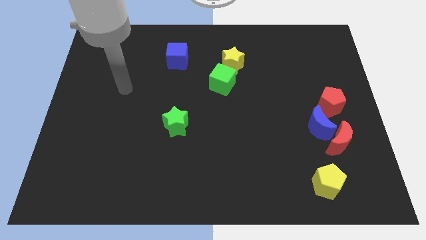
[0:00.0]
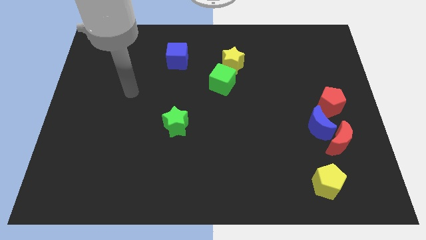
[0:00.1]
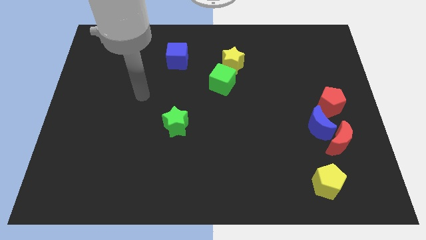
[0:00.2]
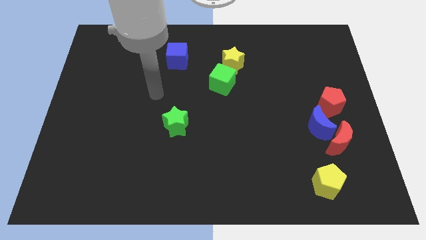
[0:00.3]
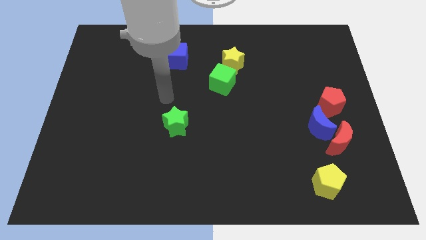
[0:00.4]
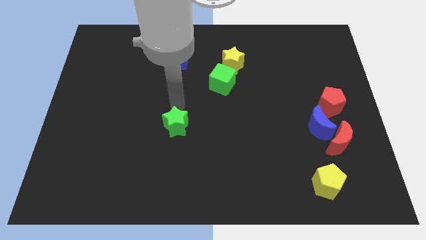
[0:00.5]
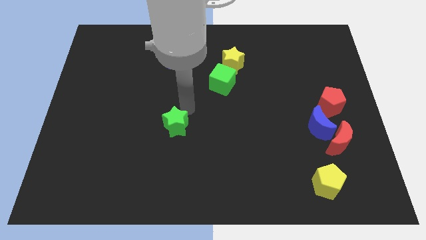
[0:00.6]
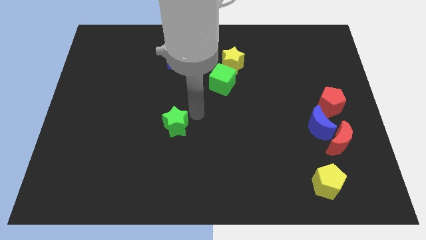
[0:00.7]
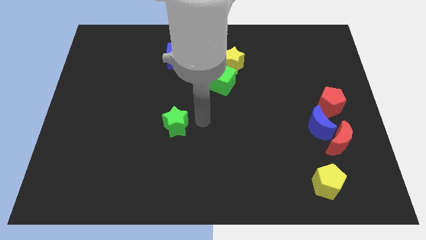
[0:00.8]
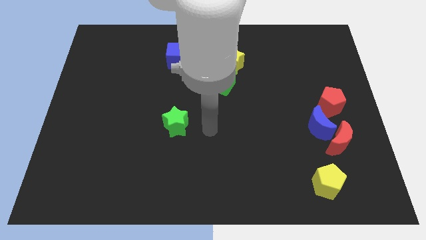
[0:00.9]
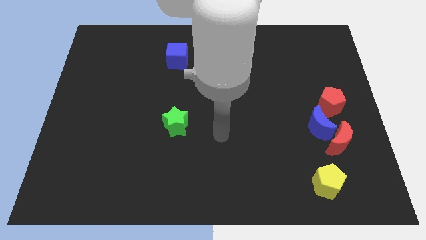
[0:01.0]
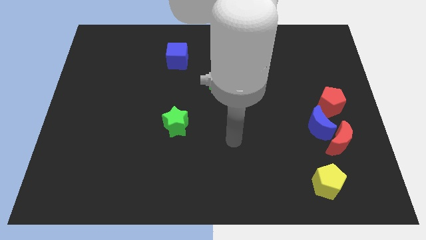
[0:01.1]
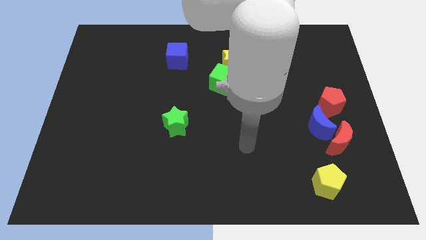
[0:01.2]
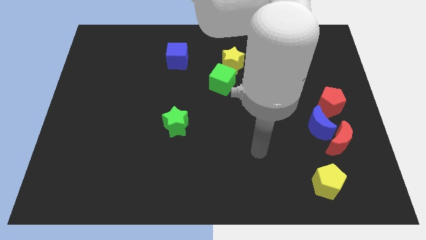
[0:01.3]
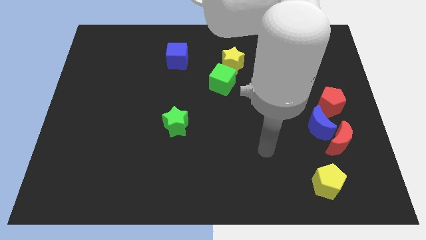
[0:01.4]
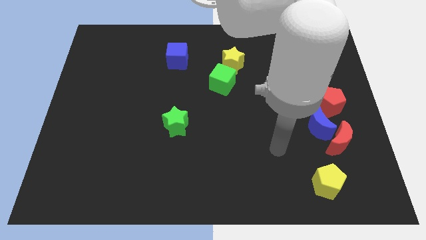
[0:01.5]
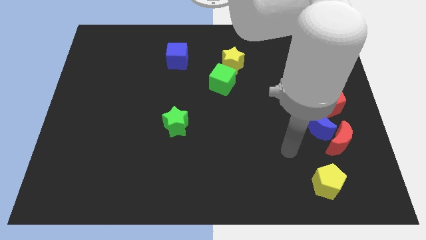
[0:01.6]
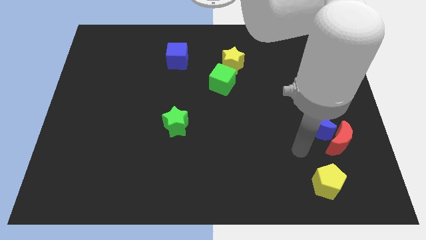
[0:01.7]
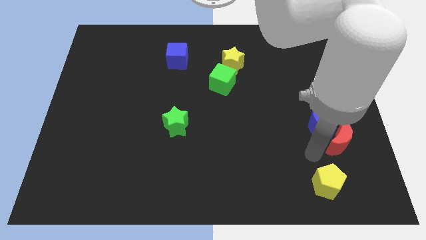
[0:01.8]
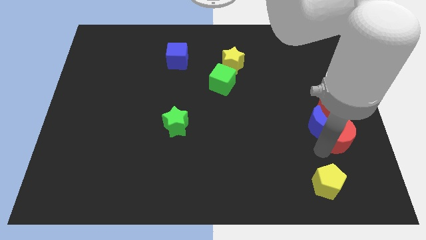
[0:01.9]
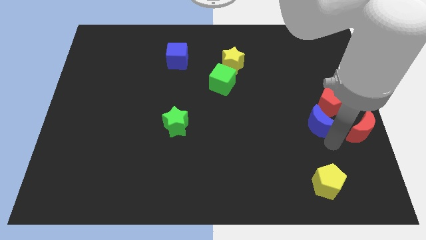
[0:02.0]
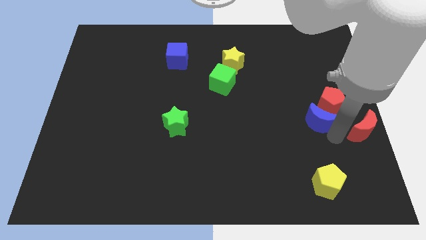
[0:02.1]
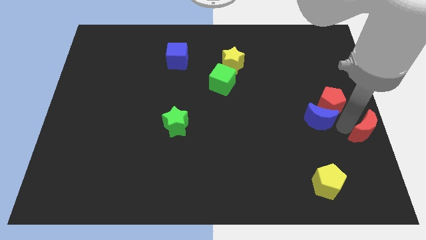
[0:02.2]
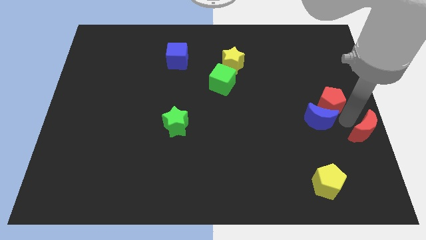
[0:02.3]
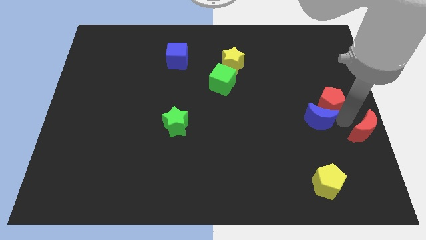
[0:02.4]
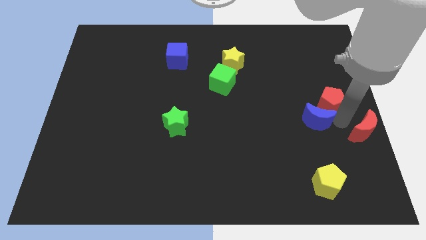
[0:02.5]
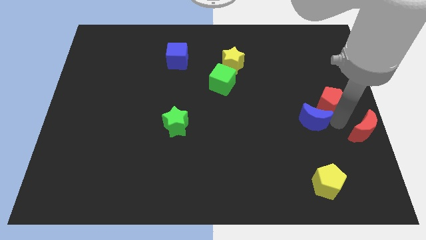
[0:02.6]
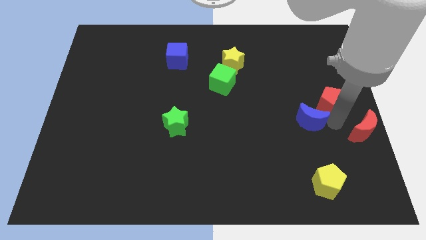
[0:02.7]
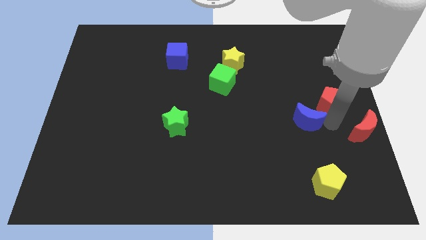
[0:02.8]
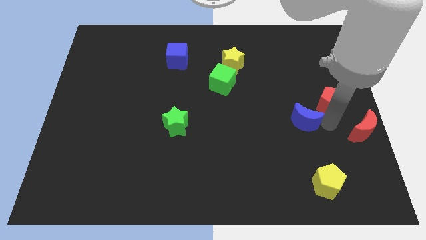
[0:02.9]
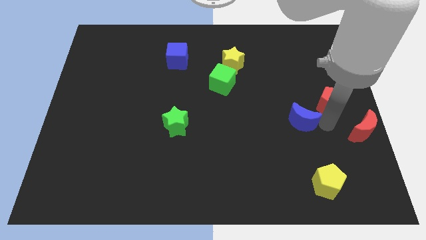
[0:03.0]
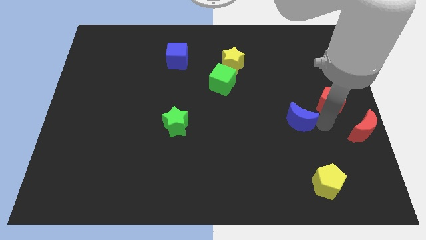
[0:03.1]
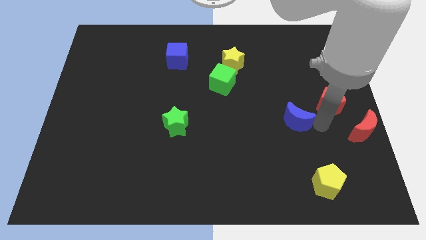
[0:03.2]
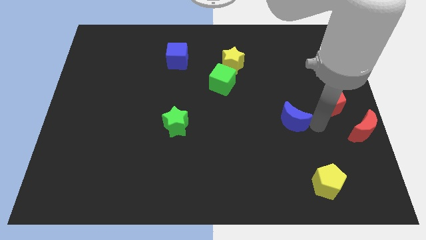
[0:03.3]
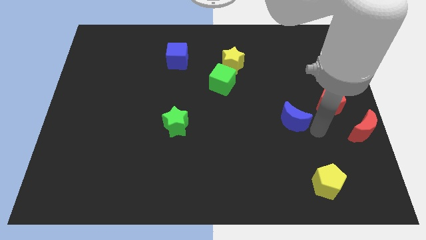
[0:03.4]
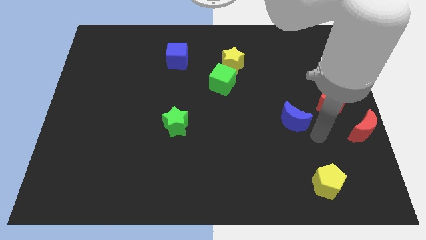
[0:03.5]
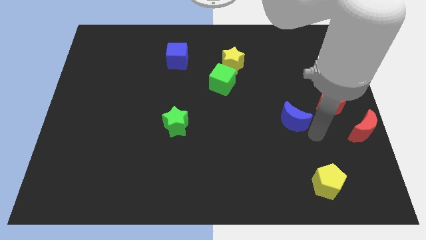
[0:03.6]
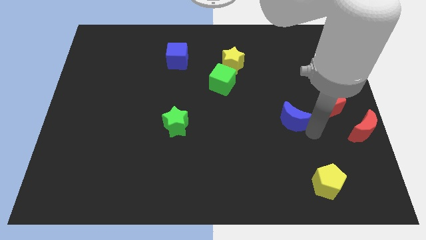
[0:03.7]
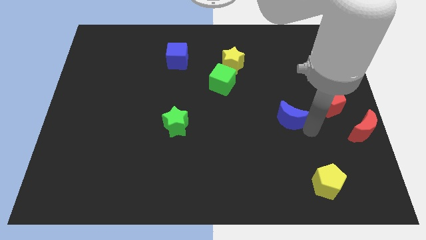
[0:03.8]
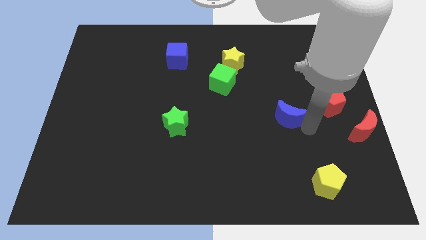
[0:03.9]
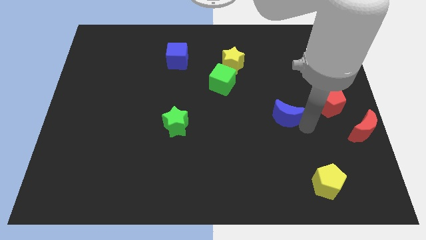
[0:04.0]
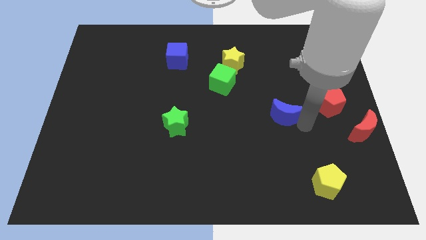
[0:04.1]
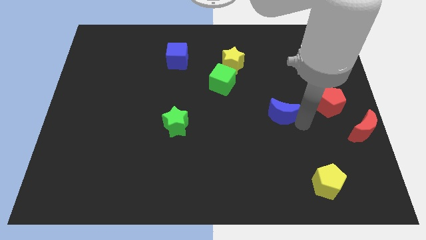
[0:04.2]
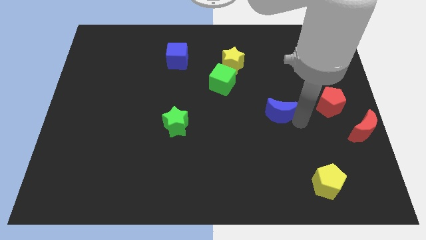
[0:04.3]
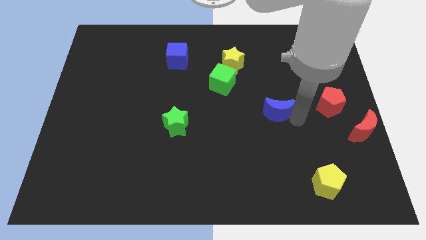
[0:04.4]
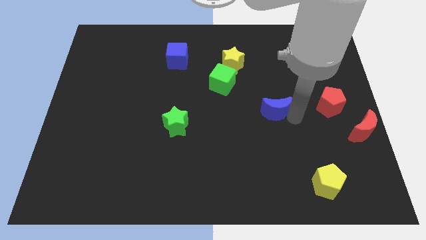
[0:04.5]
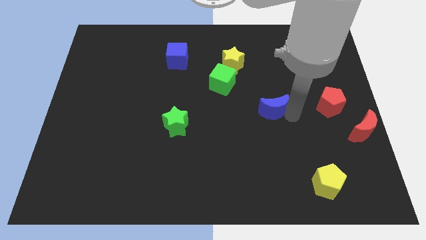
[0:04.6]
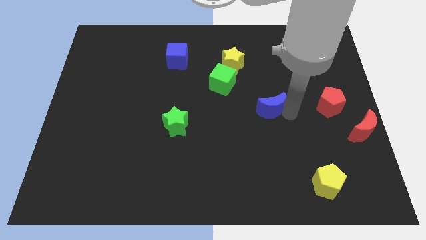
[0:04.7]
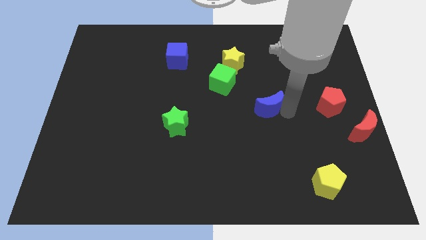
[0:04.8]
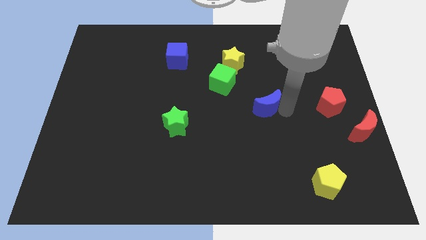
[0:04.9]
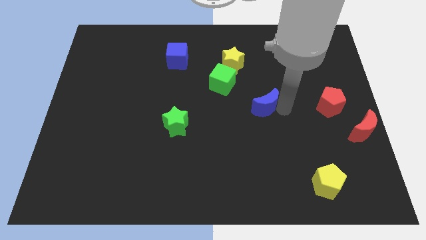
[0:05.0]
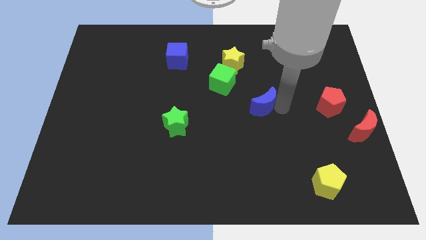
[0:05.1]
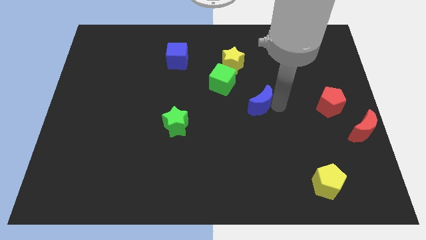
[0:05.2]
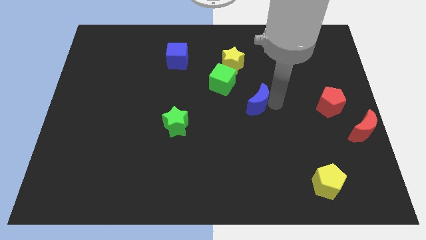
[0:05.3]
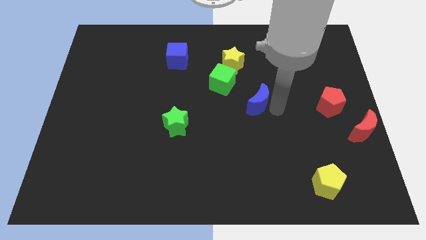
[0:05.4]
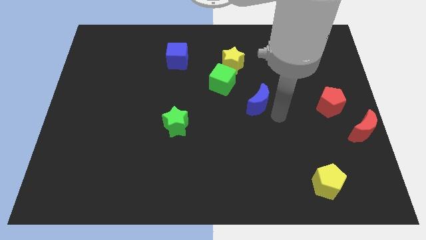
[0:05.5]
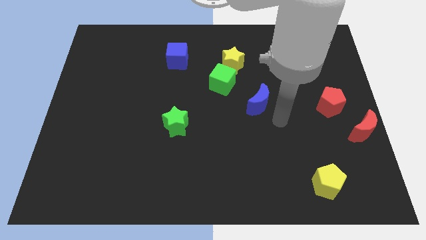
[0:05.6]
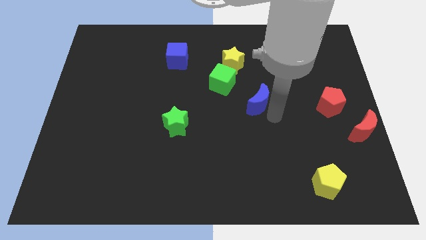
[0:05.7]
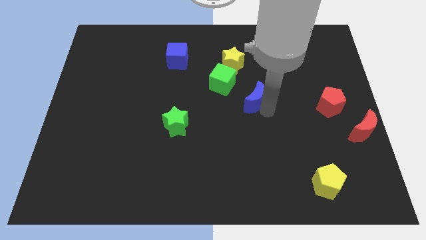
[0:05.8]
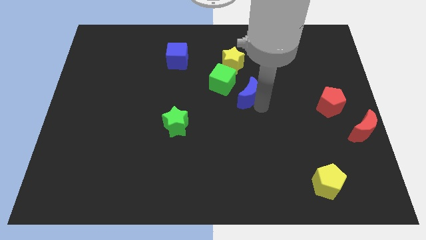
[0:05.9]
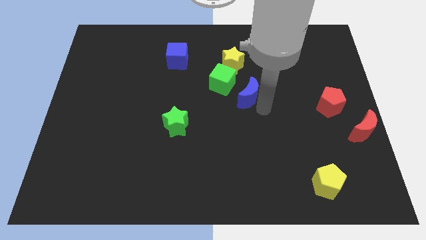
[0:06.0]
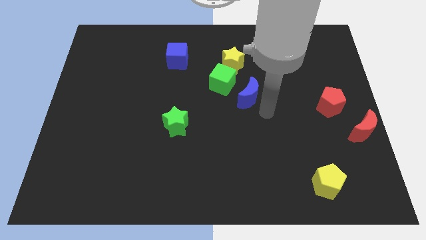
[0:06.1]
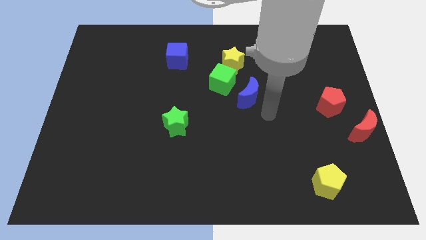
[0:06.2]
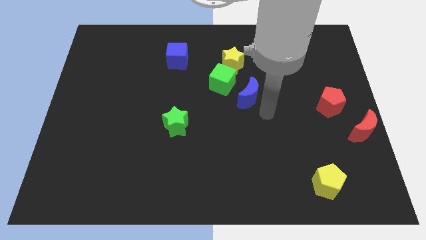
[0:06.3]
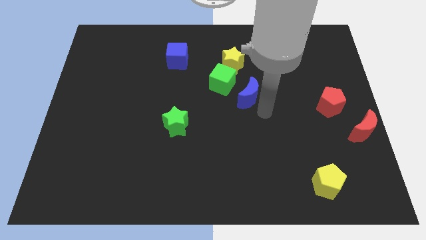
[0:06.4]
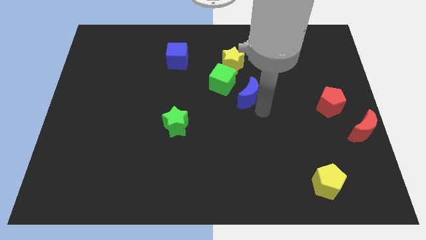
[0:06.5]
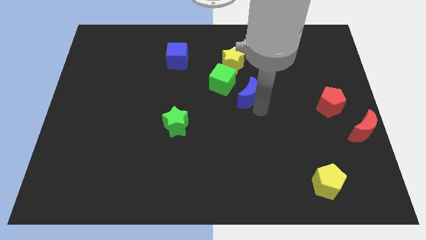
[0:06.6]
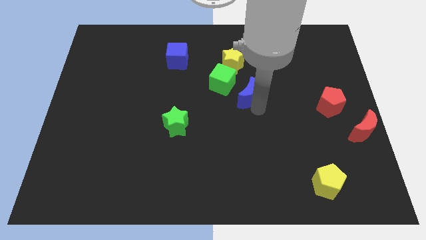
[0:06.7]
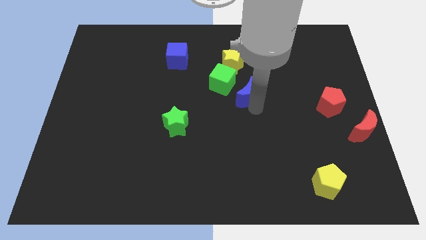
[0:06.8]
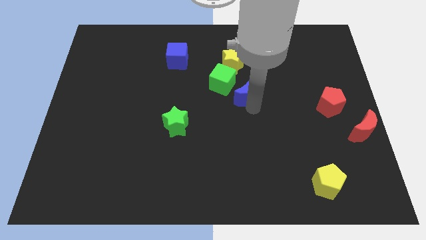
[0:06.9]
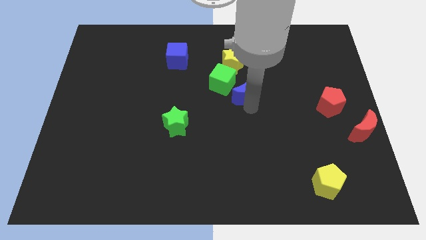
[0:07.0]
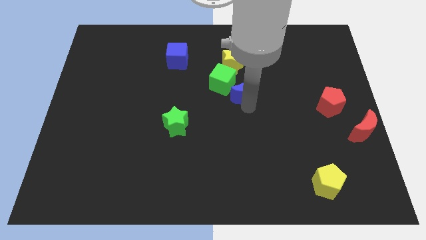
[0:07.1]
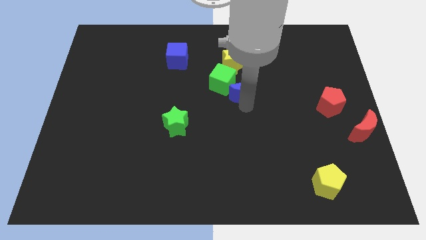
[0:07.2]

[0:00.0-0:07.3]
push the blue moon close to the green cube
